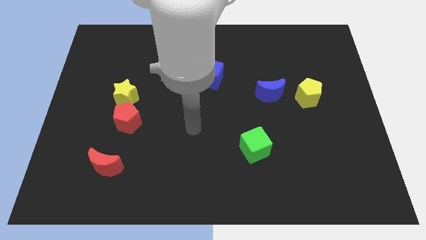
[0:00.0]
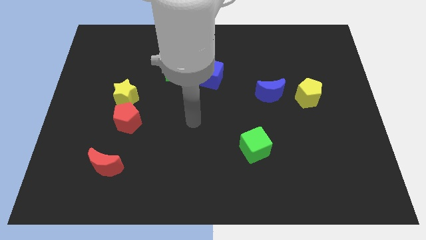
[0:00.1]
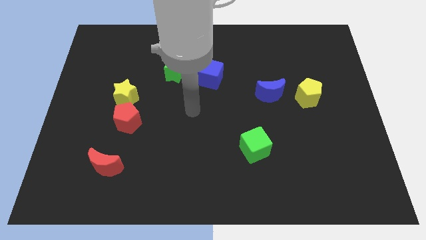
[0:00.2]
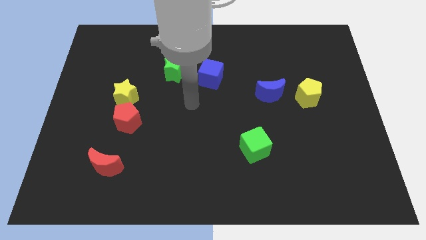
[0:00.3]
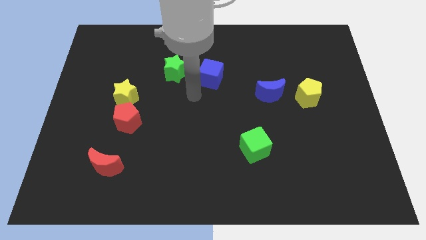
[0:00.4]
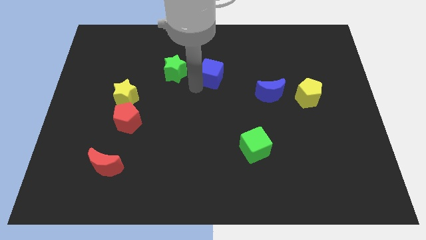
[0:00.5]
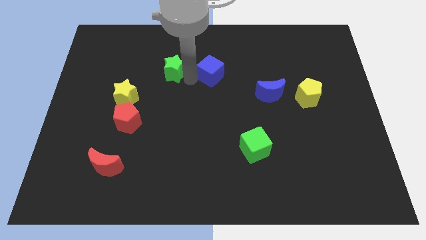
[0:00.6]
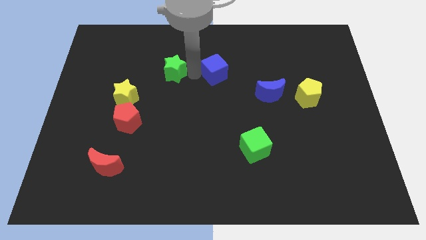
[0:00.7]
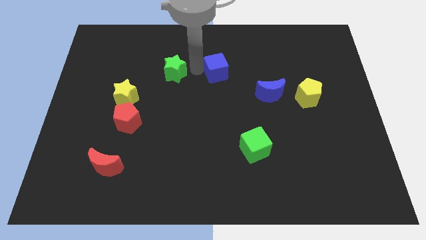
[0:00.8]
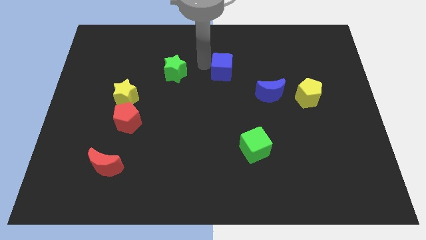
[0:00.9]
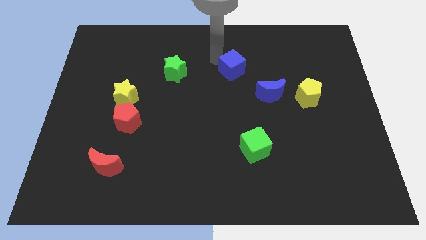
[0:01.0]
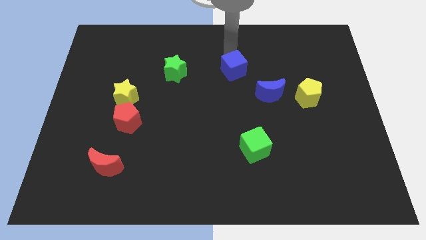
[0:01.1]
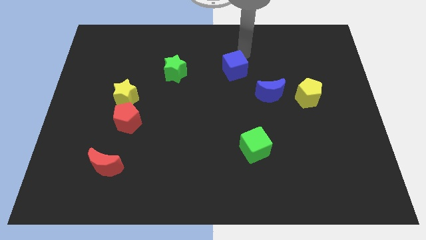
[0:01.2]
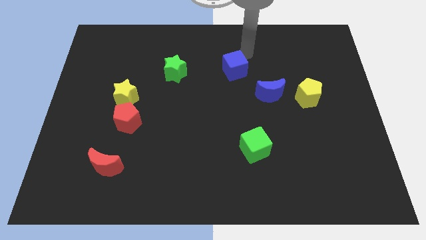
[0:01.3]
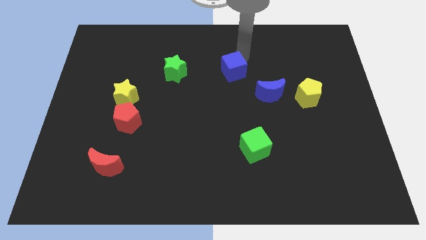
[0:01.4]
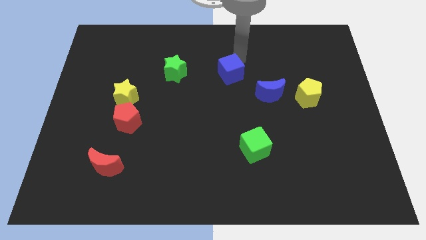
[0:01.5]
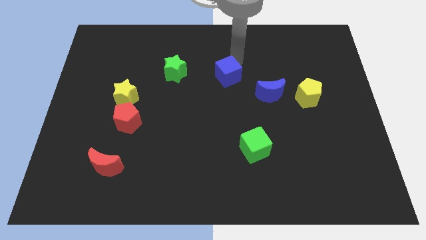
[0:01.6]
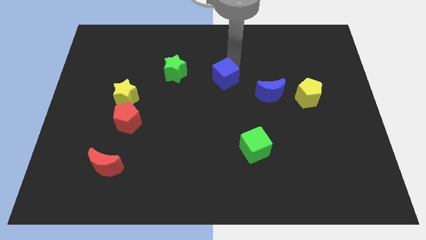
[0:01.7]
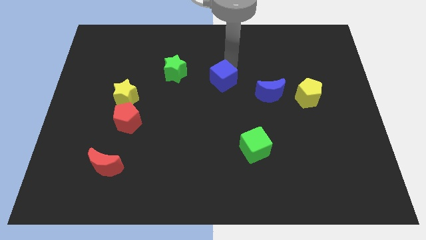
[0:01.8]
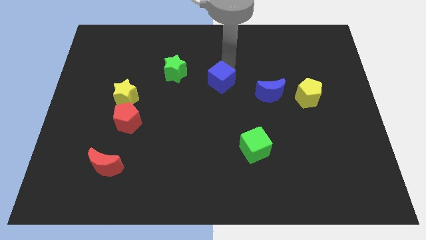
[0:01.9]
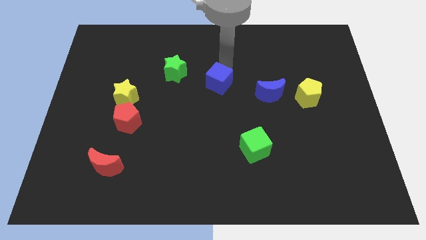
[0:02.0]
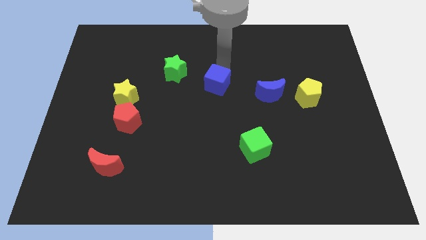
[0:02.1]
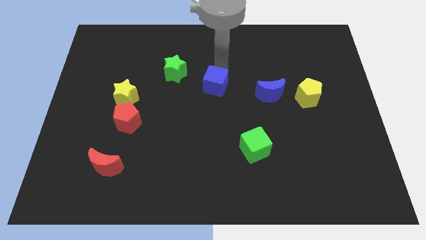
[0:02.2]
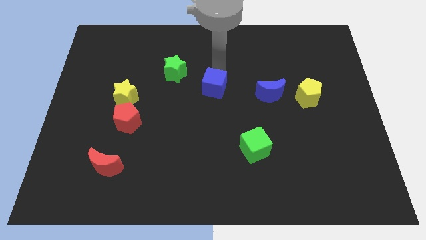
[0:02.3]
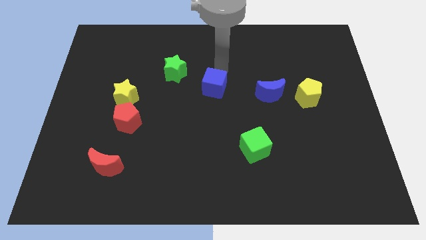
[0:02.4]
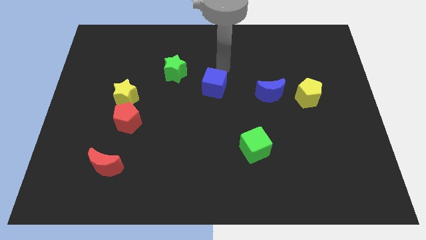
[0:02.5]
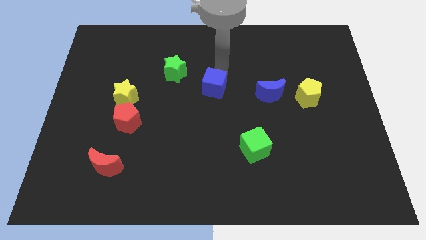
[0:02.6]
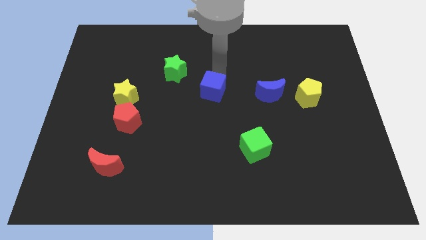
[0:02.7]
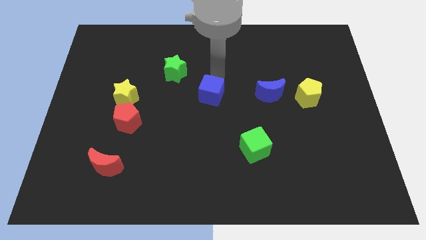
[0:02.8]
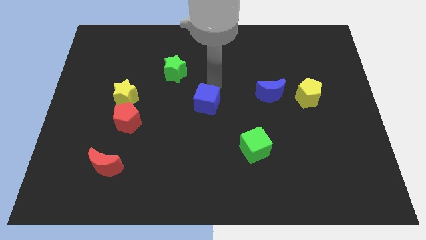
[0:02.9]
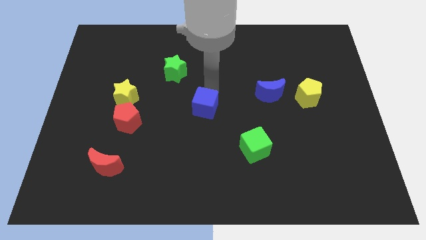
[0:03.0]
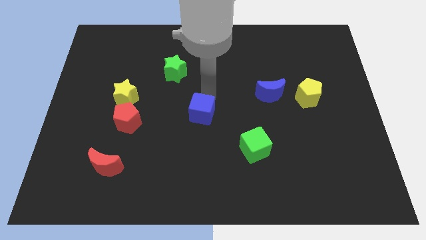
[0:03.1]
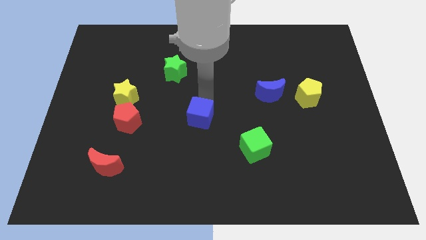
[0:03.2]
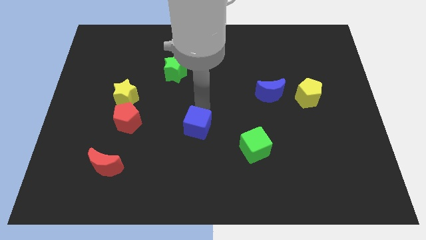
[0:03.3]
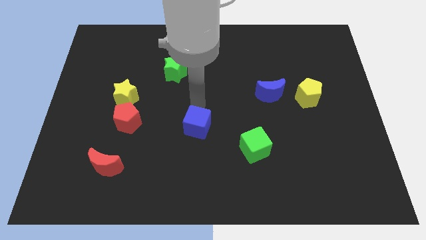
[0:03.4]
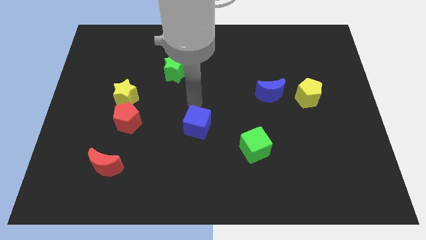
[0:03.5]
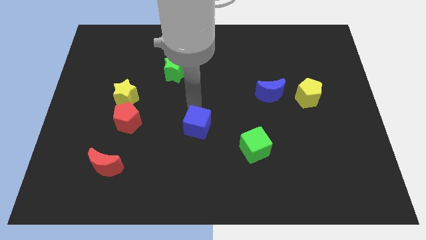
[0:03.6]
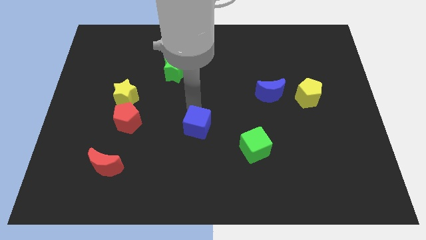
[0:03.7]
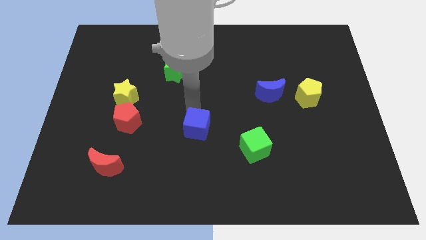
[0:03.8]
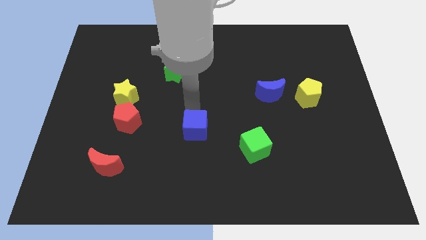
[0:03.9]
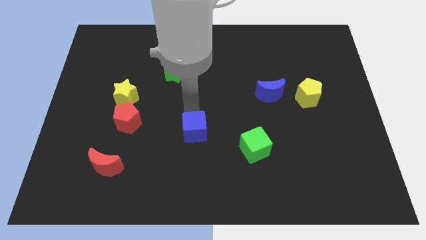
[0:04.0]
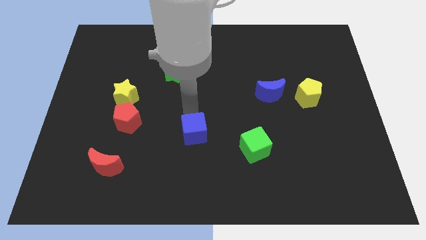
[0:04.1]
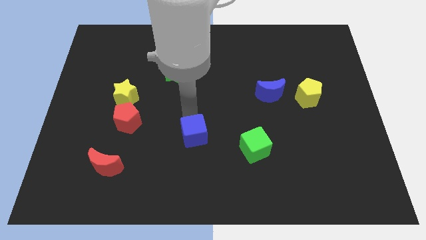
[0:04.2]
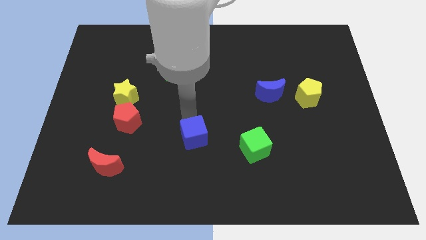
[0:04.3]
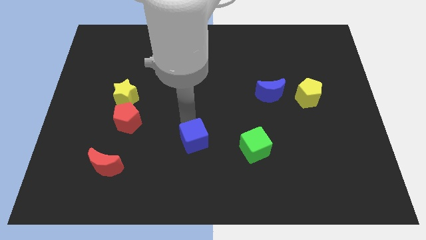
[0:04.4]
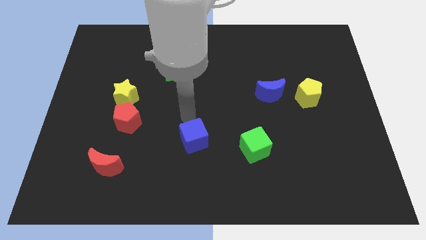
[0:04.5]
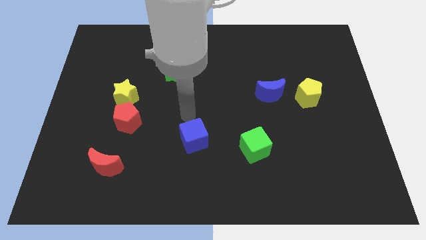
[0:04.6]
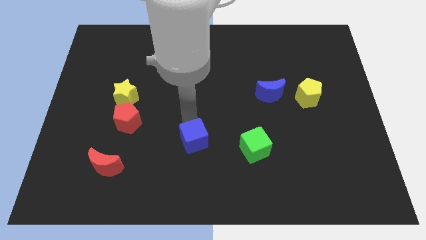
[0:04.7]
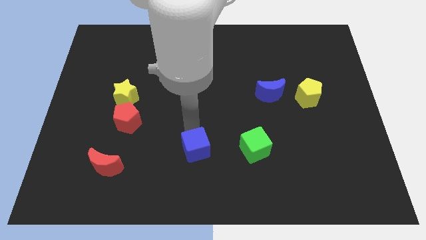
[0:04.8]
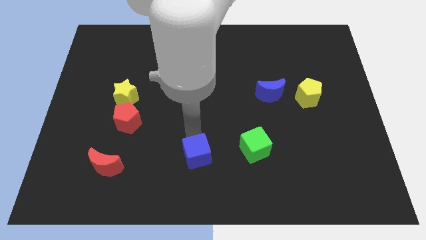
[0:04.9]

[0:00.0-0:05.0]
push the blue cube to the bottom side

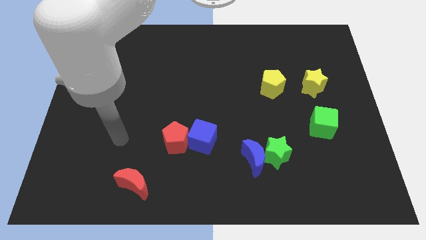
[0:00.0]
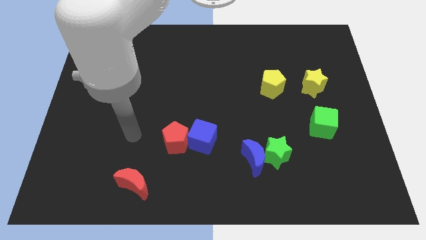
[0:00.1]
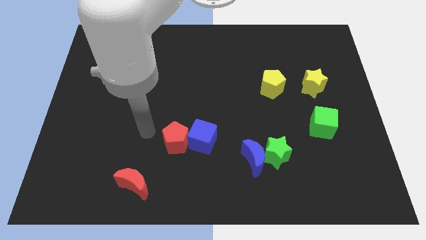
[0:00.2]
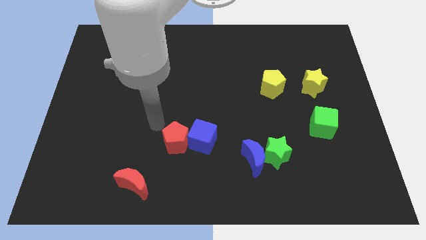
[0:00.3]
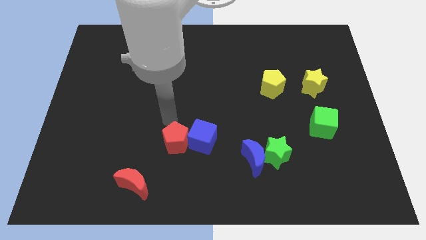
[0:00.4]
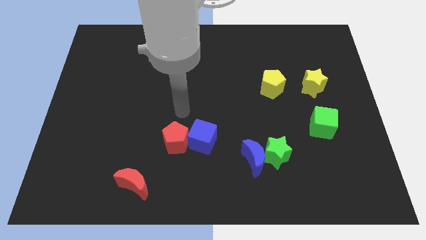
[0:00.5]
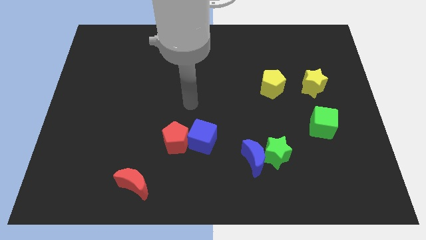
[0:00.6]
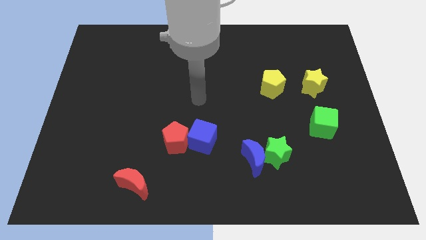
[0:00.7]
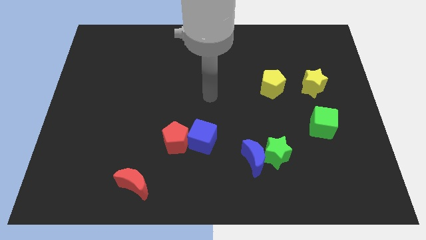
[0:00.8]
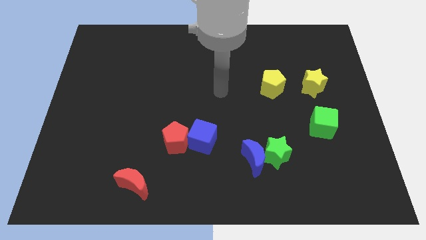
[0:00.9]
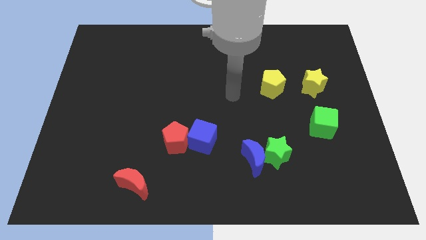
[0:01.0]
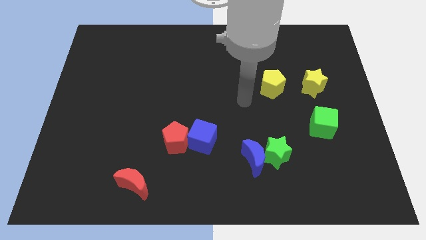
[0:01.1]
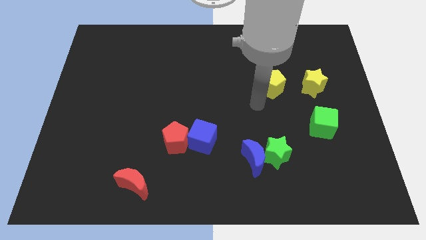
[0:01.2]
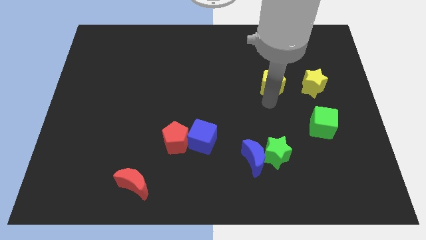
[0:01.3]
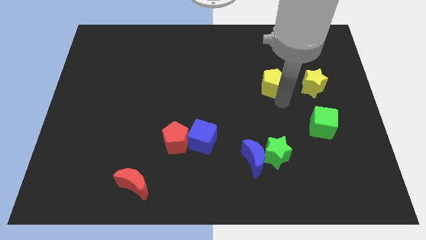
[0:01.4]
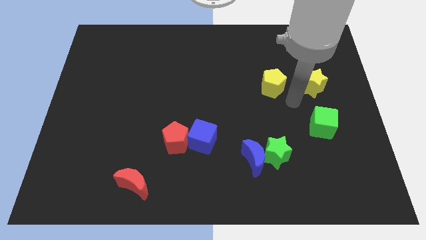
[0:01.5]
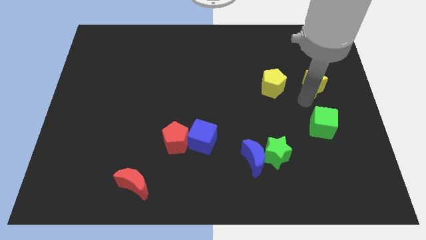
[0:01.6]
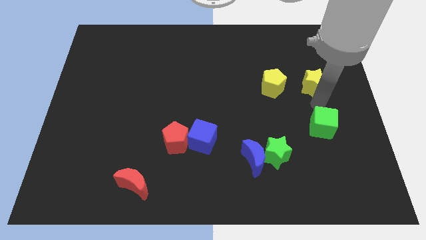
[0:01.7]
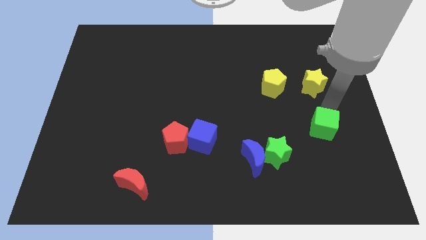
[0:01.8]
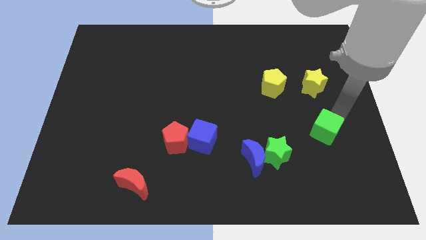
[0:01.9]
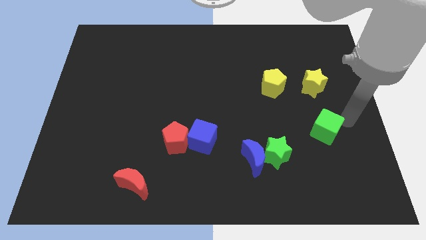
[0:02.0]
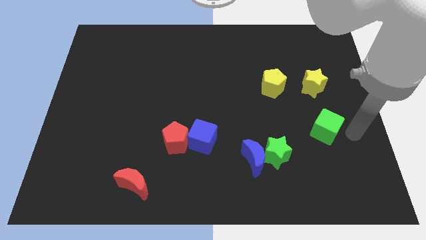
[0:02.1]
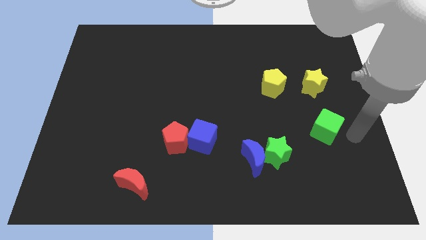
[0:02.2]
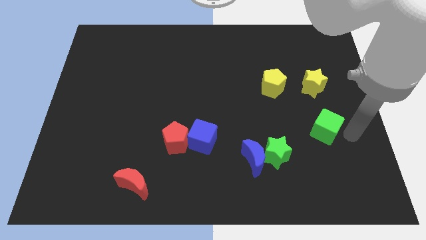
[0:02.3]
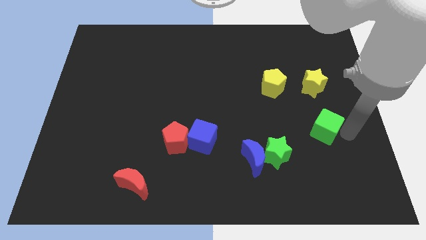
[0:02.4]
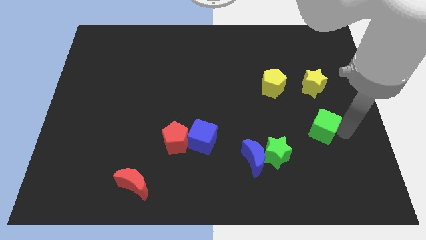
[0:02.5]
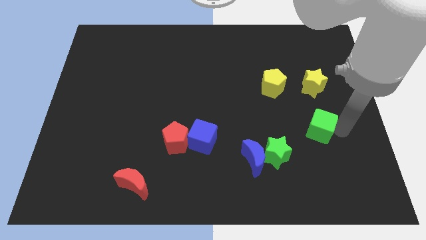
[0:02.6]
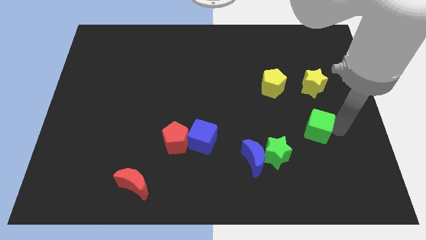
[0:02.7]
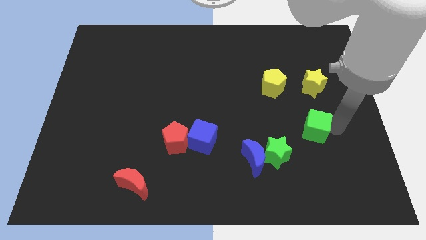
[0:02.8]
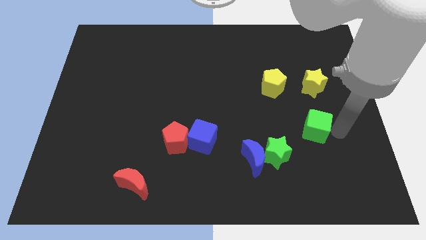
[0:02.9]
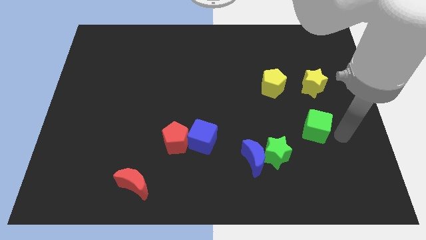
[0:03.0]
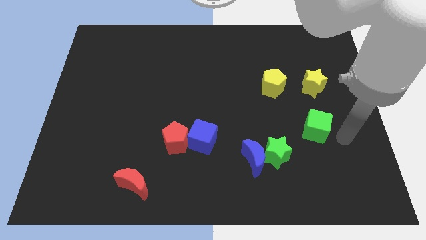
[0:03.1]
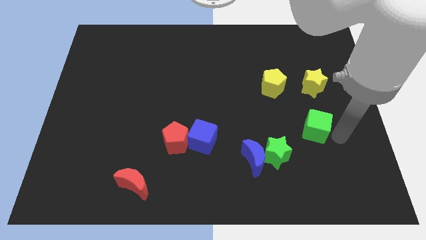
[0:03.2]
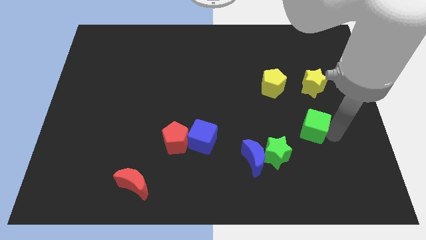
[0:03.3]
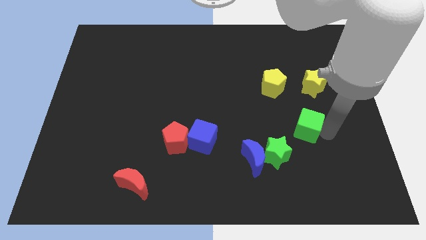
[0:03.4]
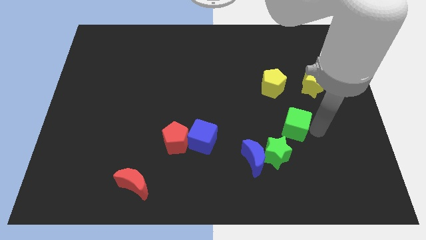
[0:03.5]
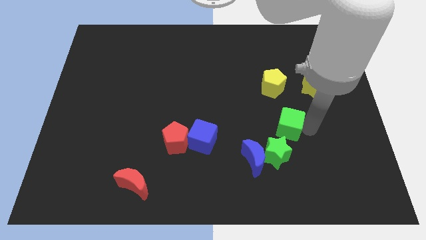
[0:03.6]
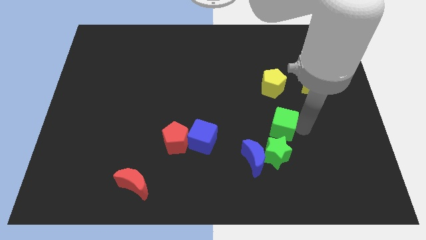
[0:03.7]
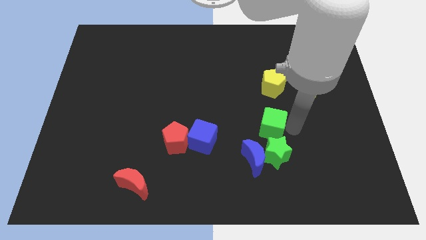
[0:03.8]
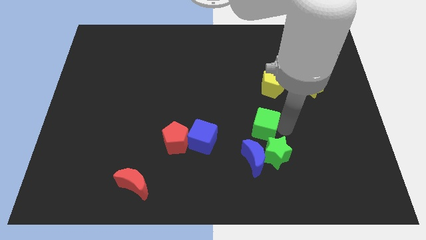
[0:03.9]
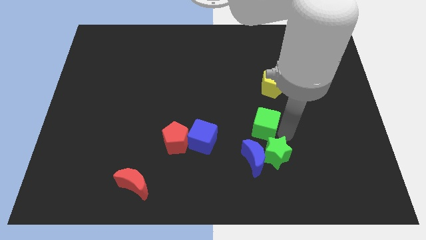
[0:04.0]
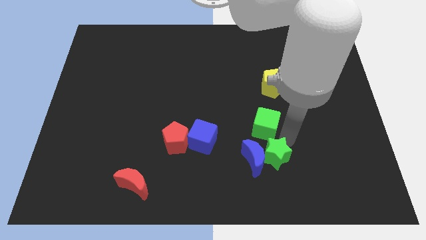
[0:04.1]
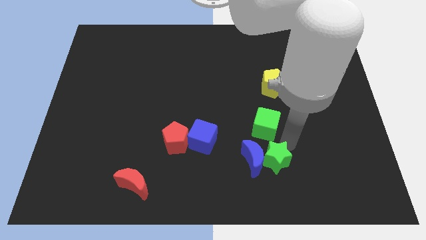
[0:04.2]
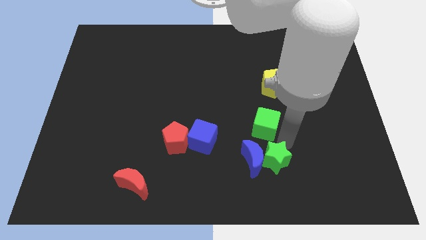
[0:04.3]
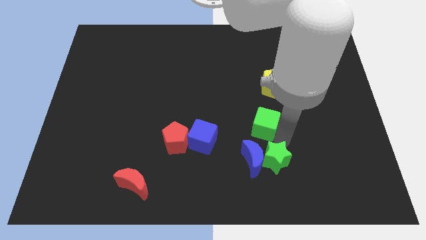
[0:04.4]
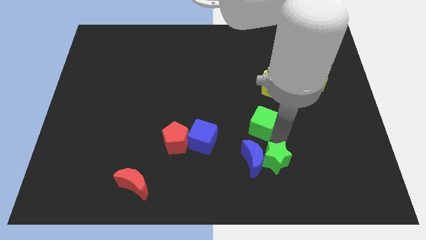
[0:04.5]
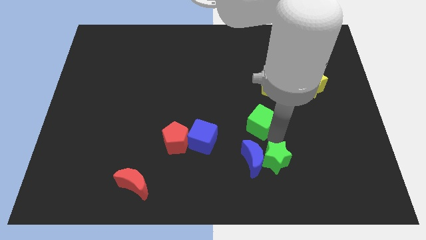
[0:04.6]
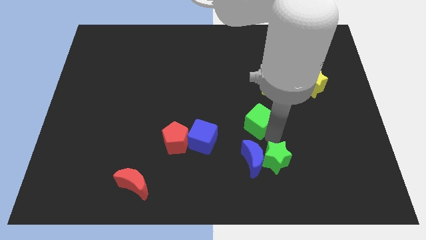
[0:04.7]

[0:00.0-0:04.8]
slide the green cube to the center of the board
